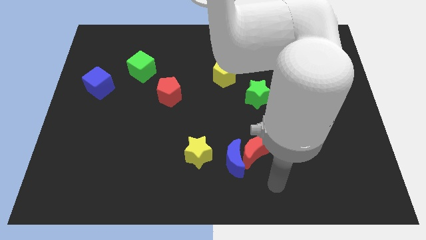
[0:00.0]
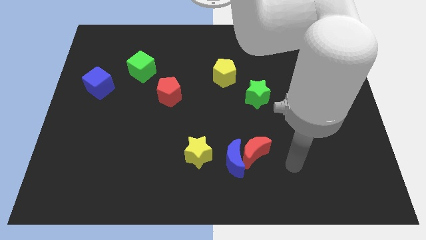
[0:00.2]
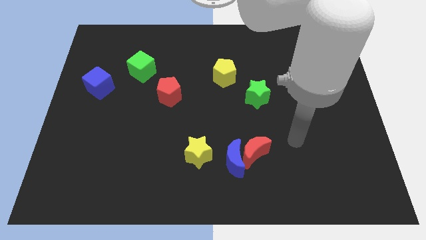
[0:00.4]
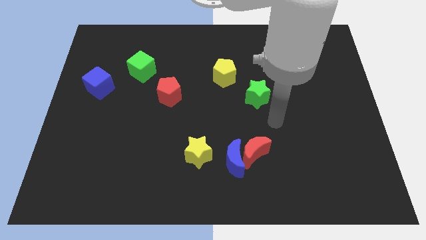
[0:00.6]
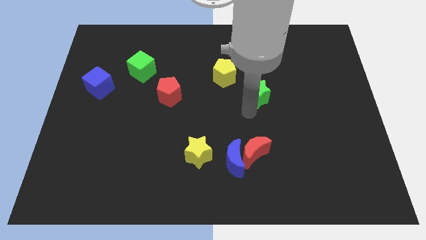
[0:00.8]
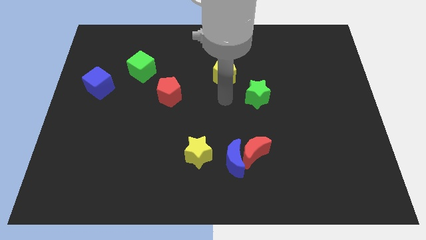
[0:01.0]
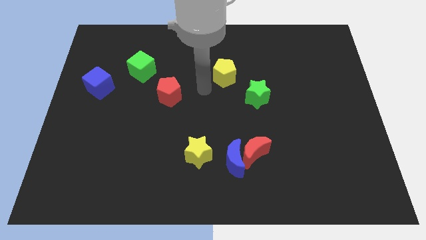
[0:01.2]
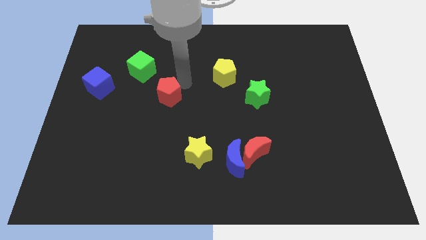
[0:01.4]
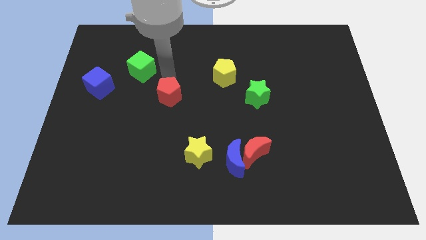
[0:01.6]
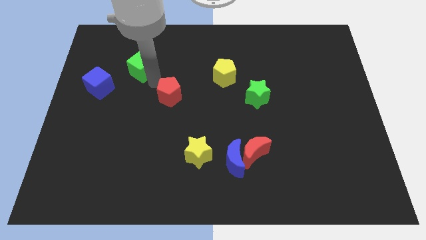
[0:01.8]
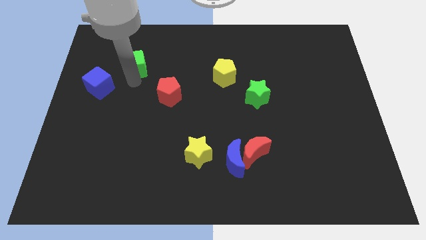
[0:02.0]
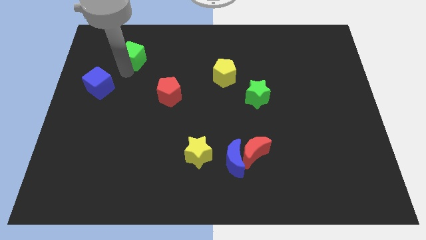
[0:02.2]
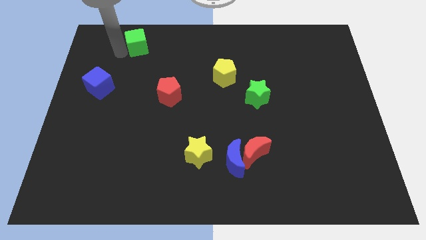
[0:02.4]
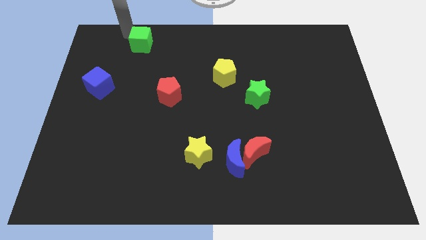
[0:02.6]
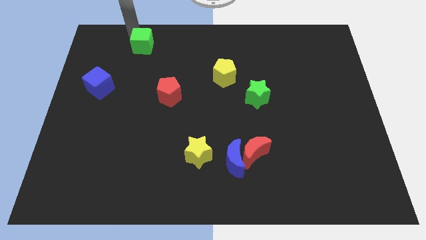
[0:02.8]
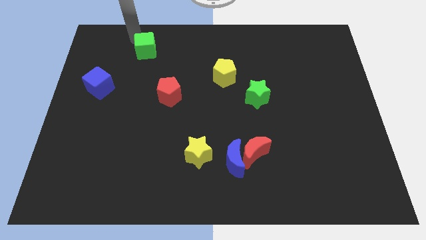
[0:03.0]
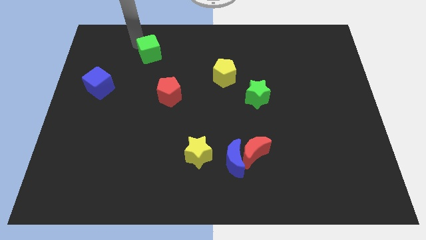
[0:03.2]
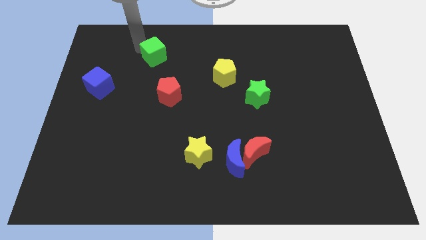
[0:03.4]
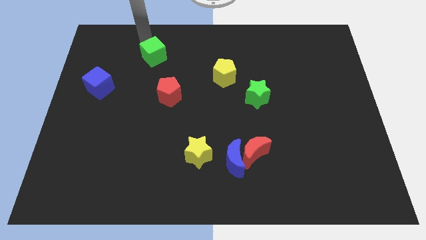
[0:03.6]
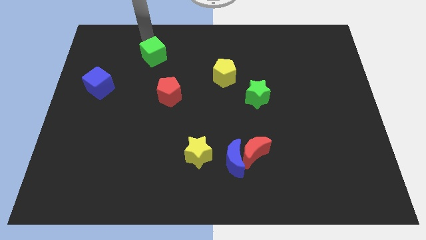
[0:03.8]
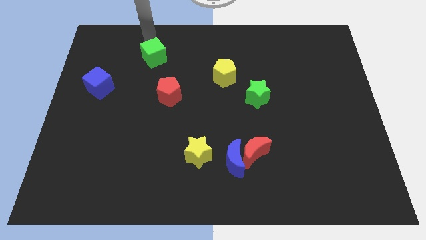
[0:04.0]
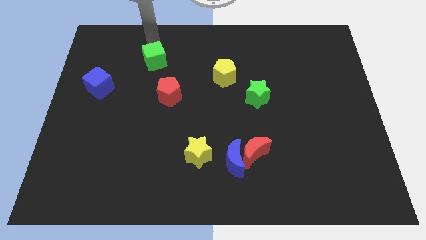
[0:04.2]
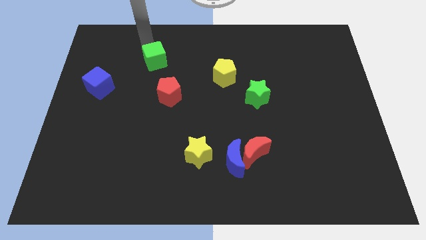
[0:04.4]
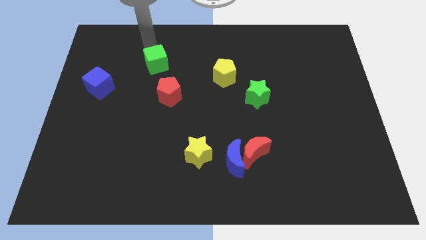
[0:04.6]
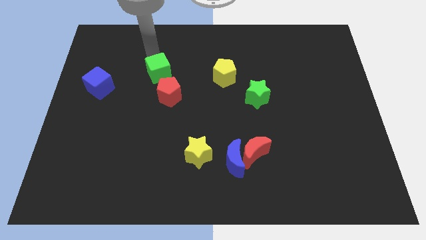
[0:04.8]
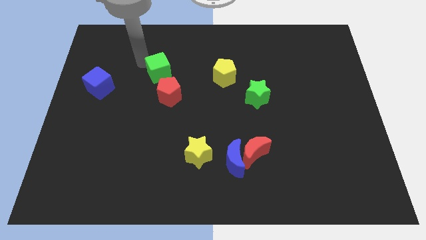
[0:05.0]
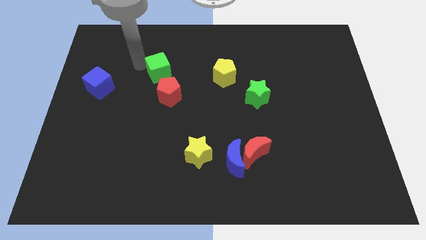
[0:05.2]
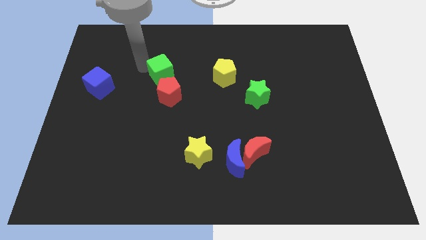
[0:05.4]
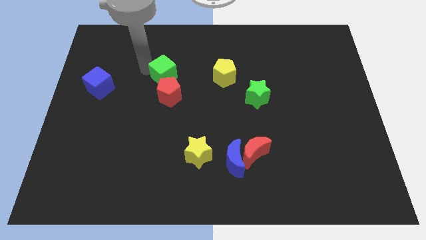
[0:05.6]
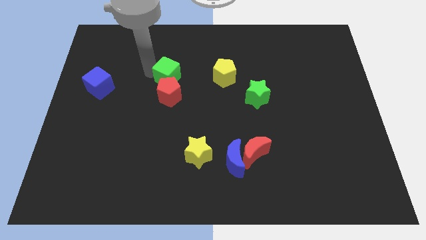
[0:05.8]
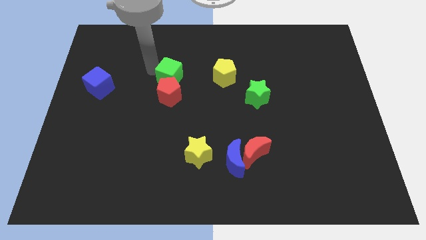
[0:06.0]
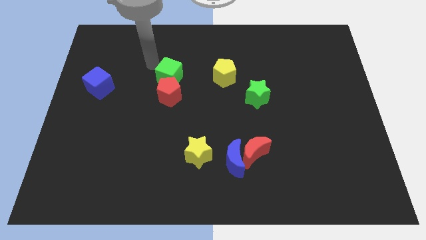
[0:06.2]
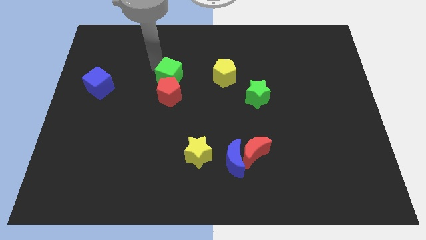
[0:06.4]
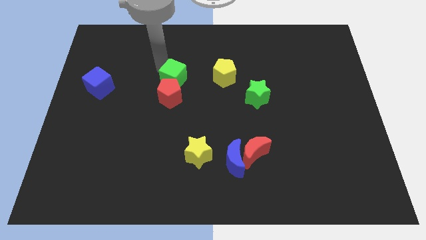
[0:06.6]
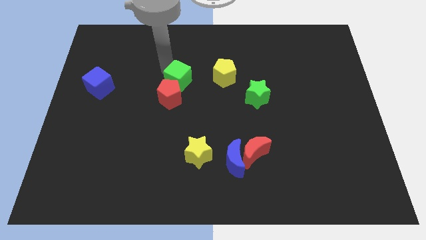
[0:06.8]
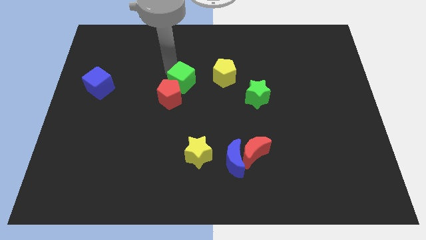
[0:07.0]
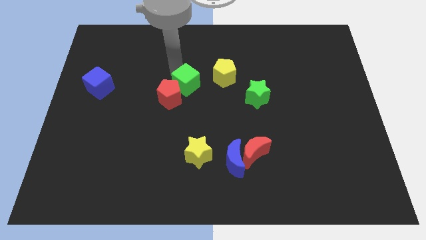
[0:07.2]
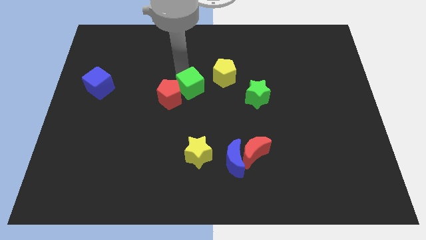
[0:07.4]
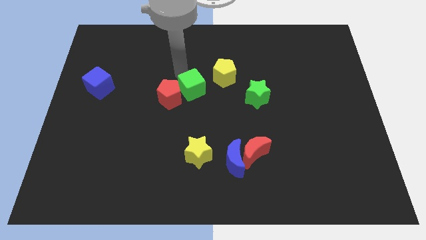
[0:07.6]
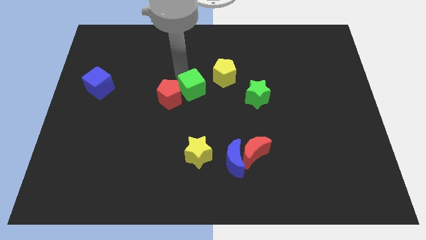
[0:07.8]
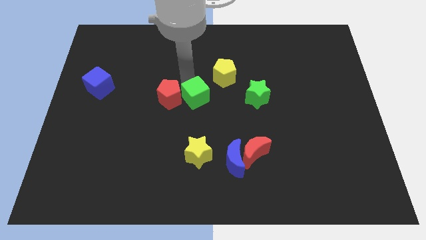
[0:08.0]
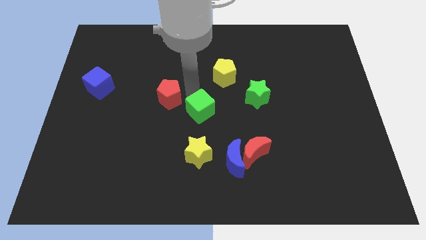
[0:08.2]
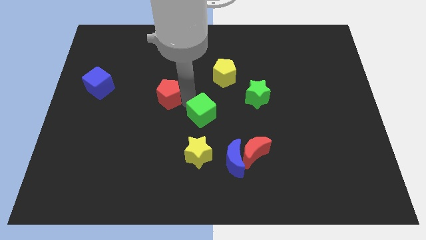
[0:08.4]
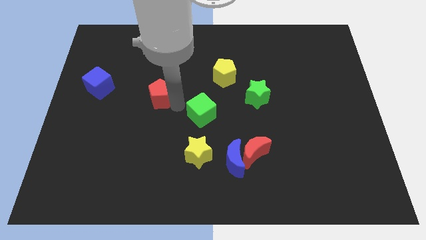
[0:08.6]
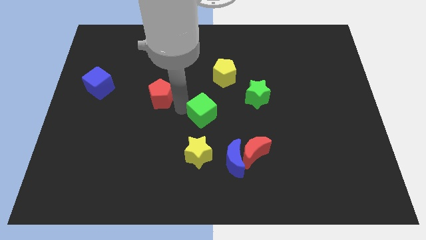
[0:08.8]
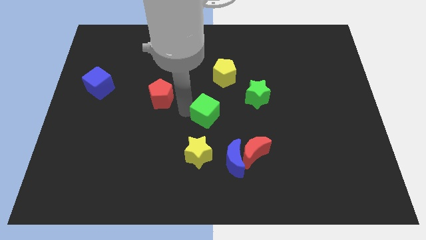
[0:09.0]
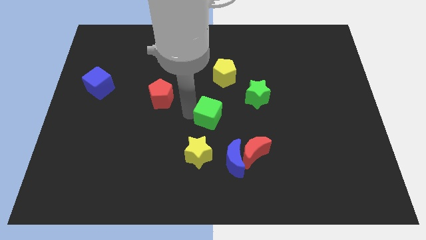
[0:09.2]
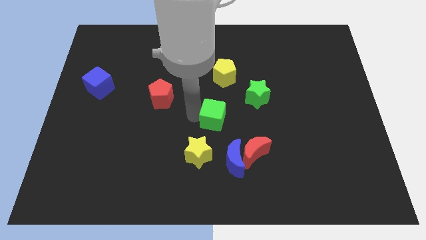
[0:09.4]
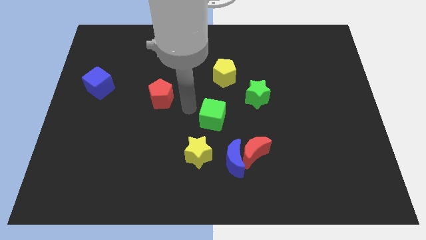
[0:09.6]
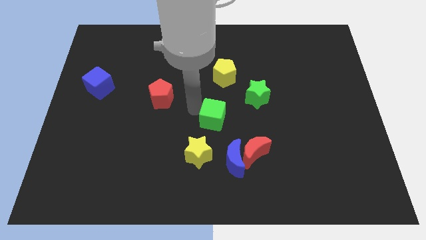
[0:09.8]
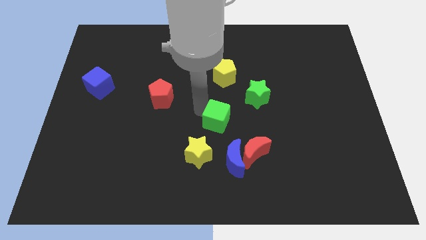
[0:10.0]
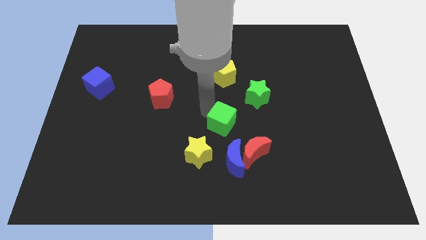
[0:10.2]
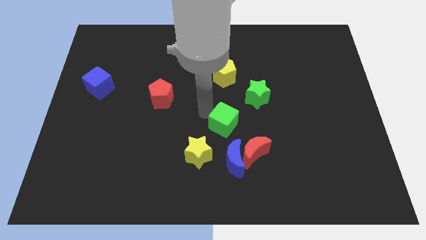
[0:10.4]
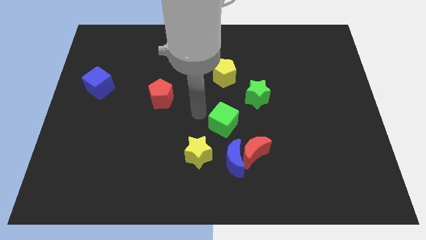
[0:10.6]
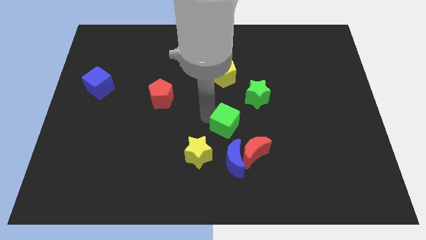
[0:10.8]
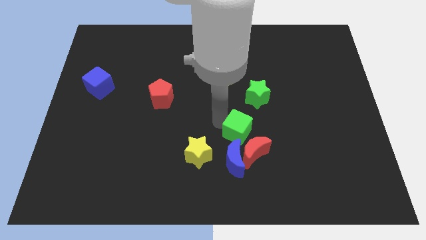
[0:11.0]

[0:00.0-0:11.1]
put the green cube to the top right of the blue moon

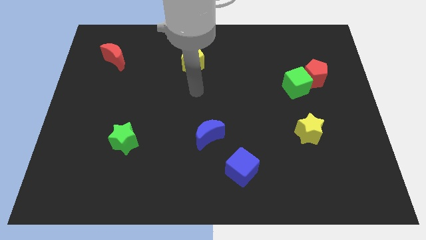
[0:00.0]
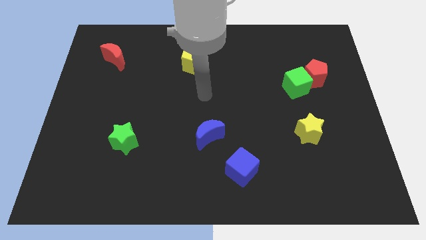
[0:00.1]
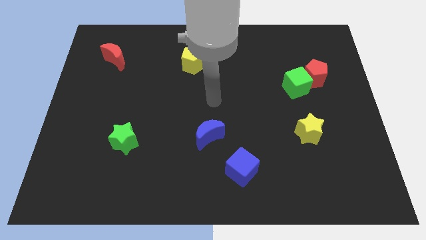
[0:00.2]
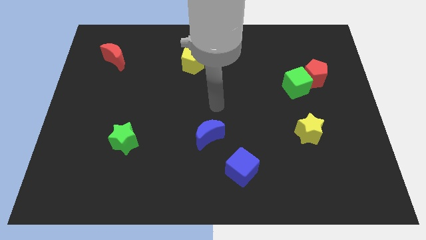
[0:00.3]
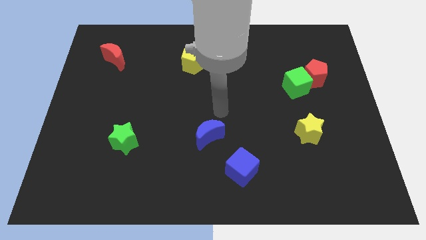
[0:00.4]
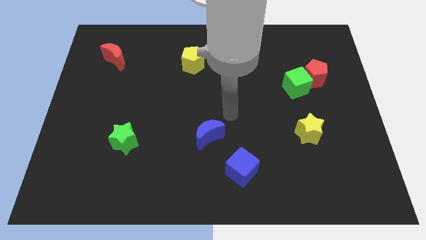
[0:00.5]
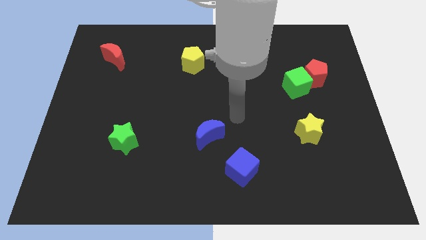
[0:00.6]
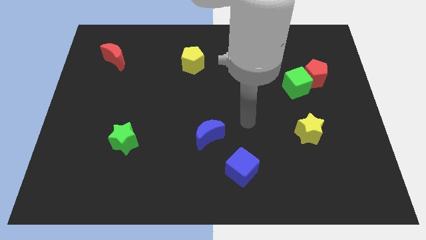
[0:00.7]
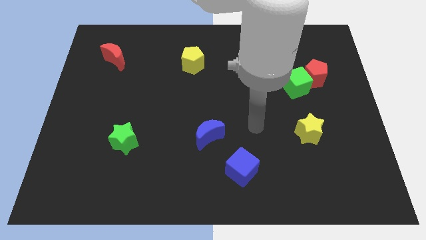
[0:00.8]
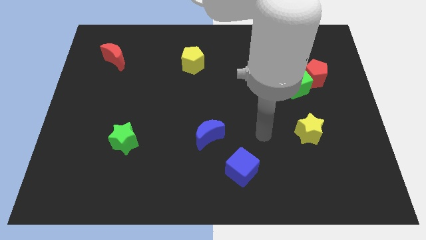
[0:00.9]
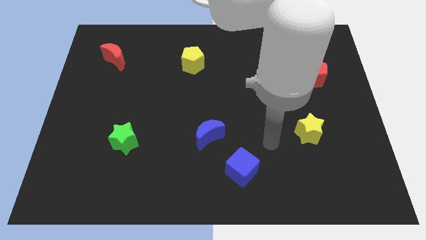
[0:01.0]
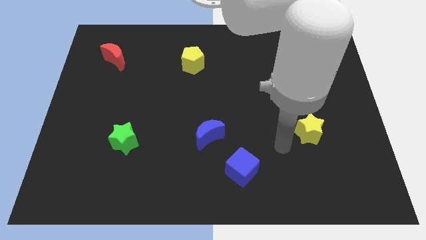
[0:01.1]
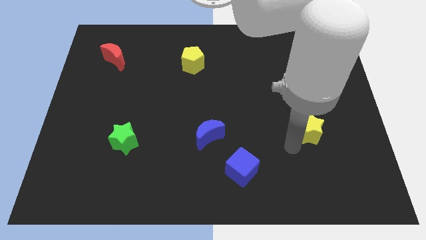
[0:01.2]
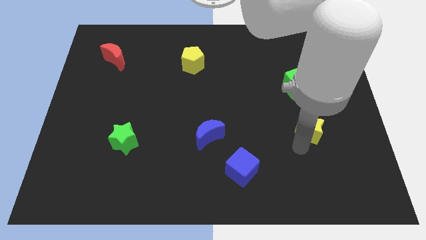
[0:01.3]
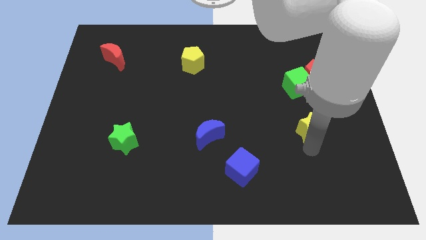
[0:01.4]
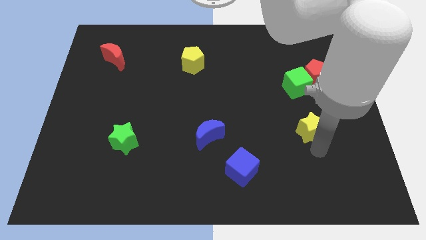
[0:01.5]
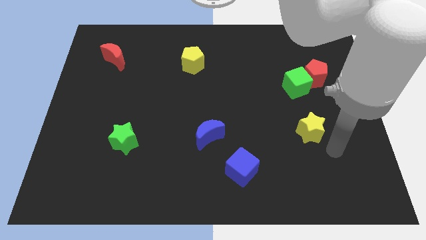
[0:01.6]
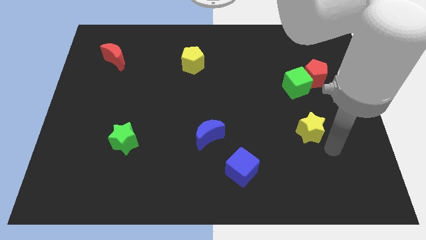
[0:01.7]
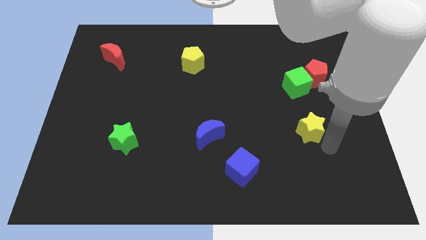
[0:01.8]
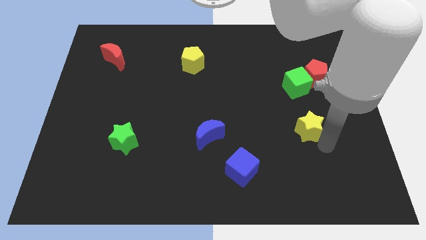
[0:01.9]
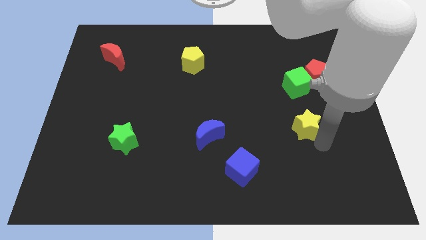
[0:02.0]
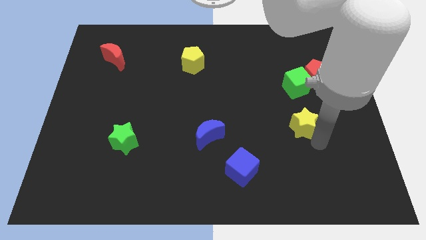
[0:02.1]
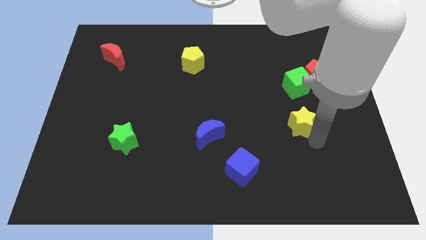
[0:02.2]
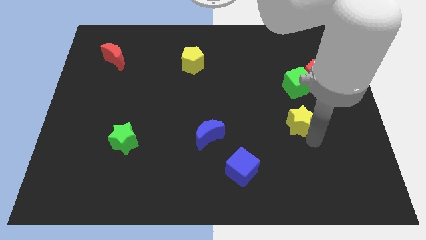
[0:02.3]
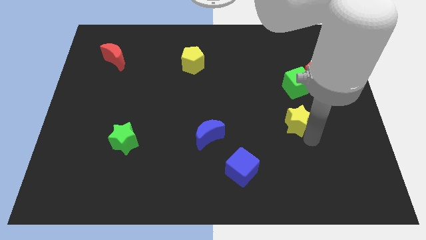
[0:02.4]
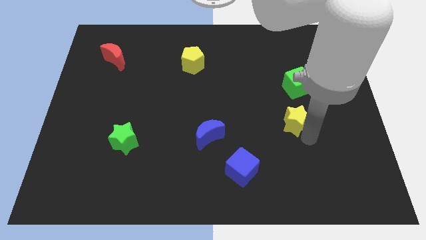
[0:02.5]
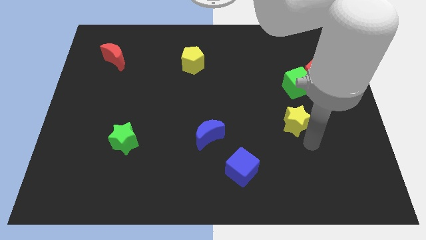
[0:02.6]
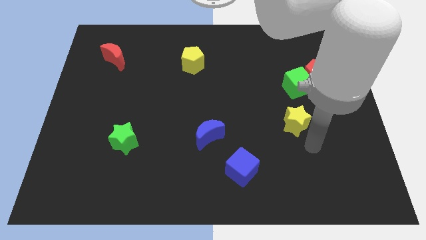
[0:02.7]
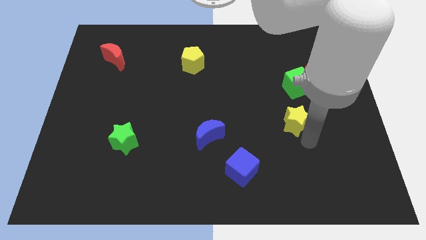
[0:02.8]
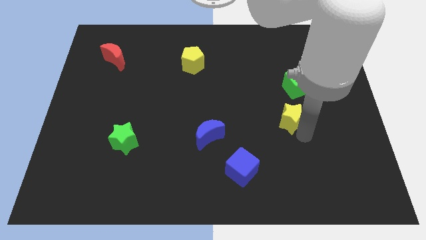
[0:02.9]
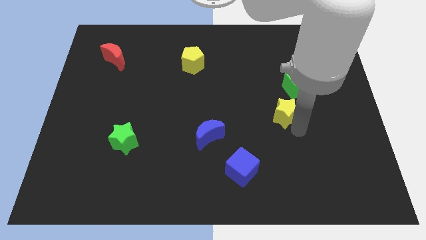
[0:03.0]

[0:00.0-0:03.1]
push the yellow star diagonally down and to the left of the green cube
